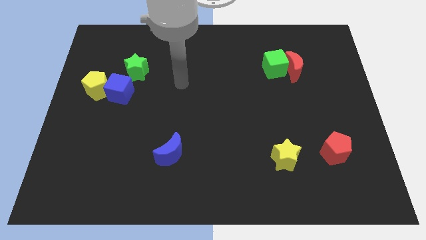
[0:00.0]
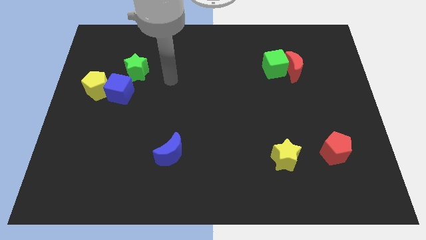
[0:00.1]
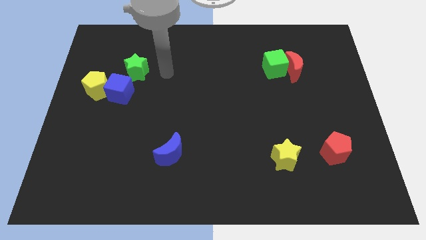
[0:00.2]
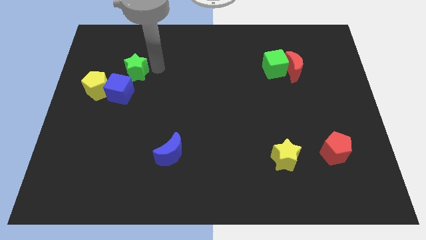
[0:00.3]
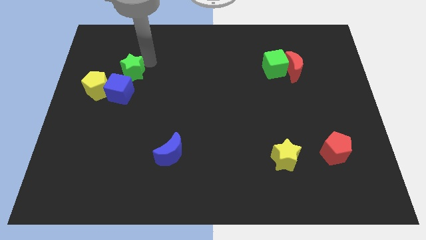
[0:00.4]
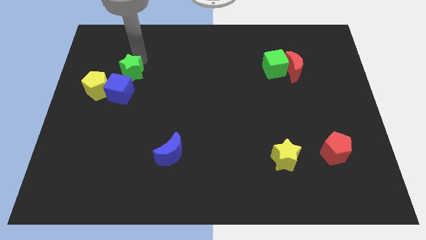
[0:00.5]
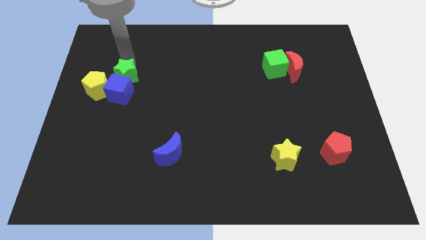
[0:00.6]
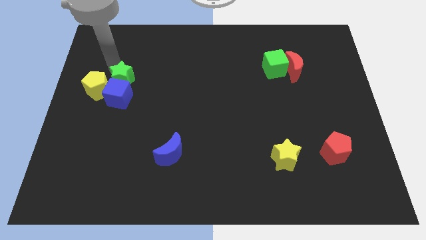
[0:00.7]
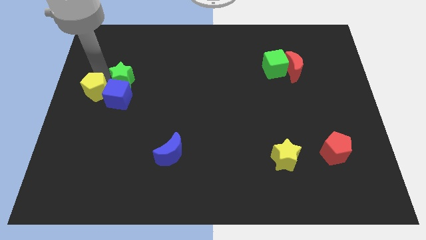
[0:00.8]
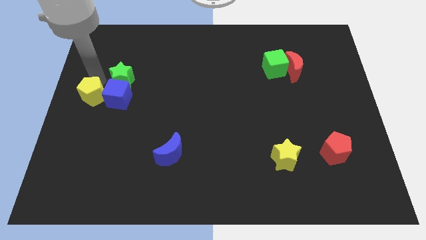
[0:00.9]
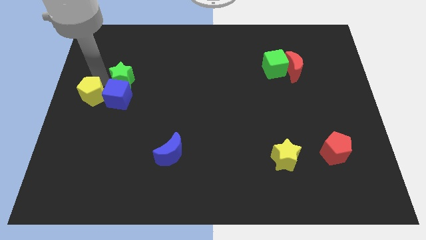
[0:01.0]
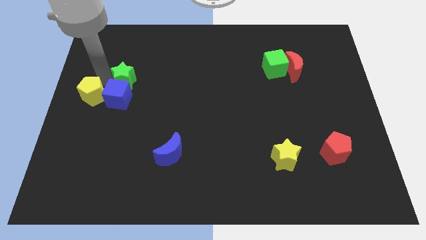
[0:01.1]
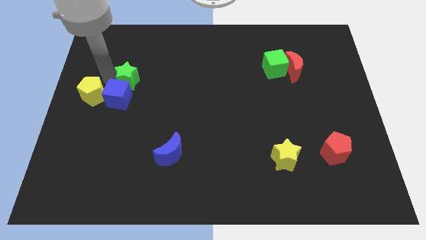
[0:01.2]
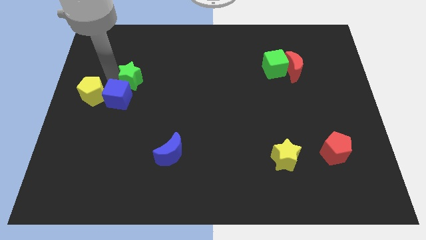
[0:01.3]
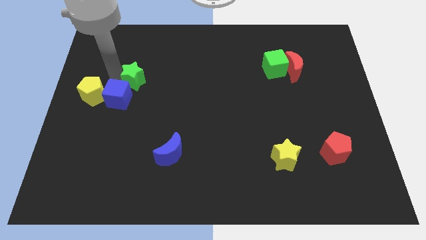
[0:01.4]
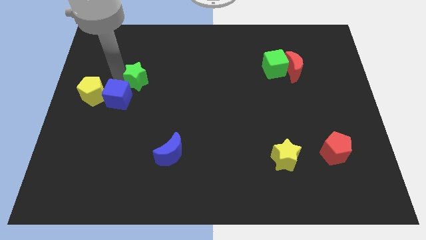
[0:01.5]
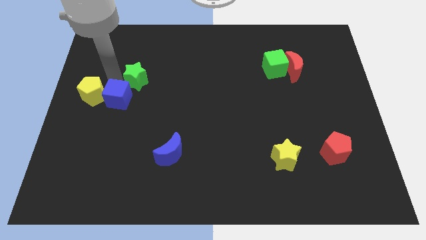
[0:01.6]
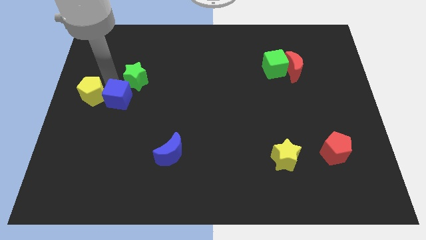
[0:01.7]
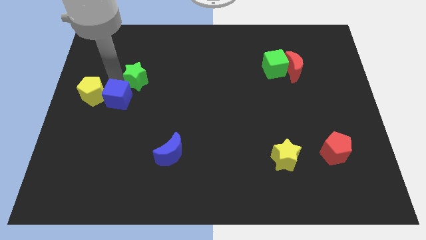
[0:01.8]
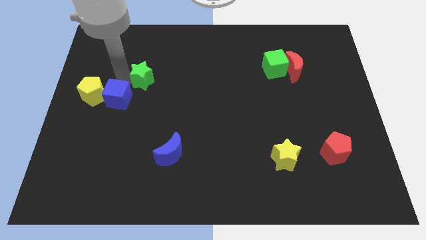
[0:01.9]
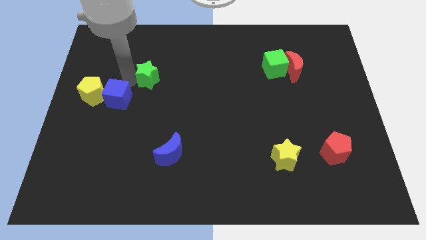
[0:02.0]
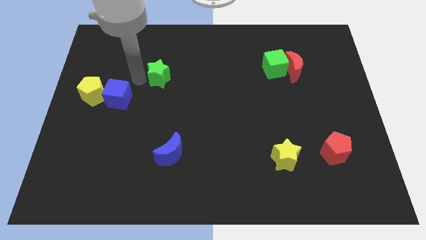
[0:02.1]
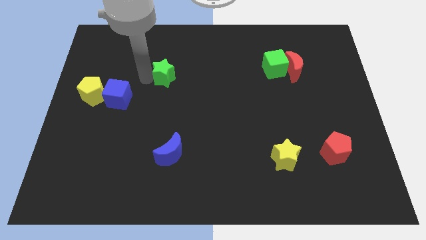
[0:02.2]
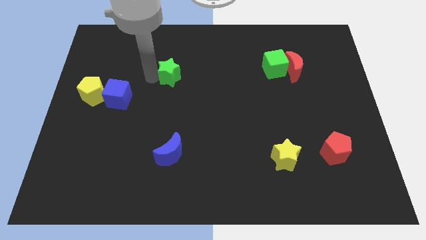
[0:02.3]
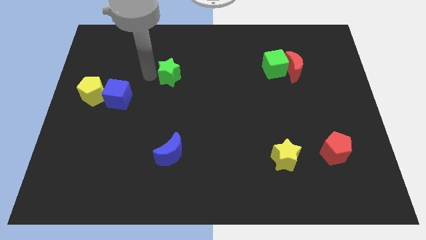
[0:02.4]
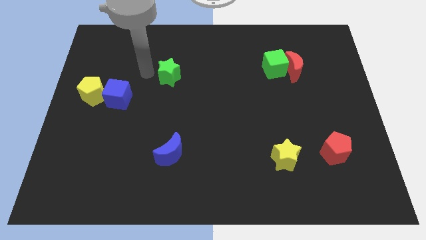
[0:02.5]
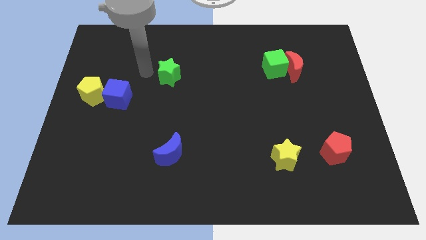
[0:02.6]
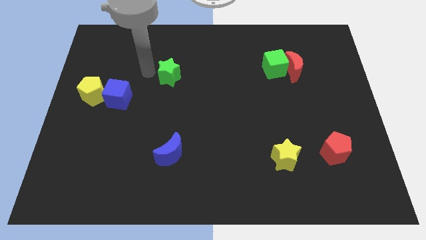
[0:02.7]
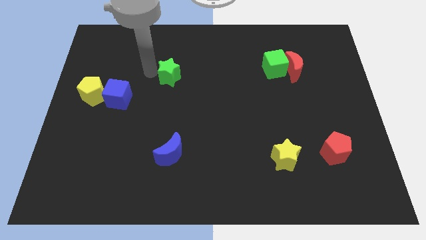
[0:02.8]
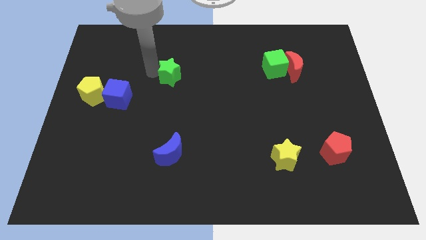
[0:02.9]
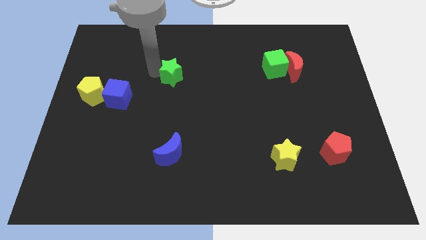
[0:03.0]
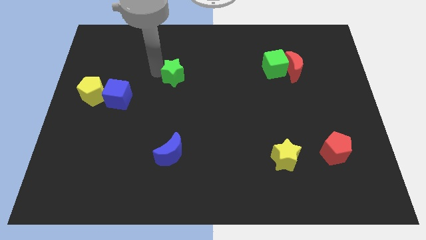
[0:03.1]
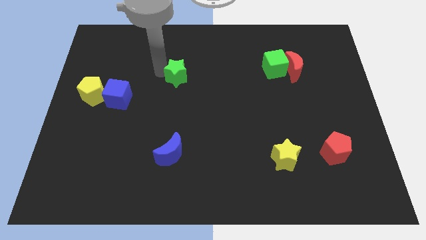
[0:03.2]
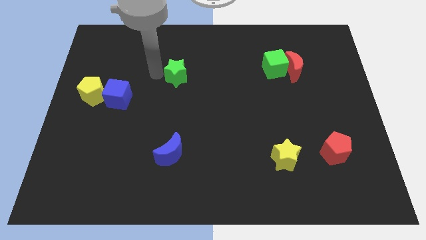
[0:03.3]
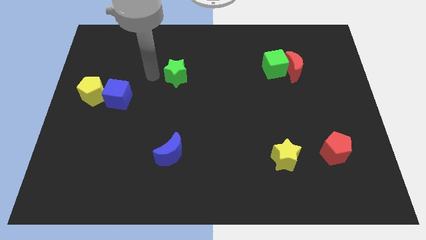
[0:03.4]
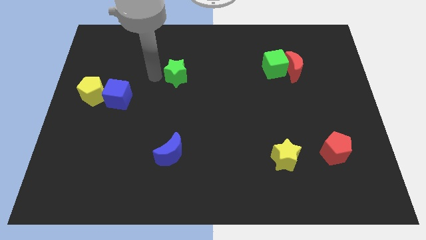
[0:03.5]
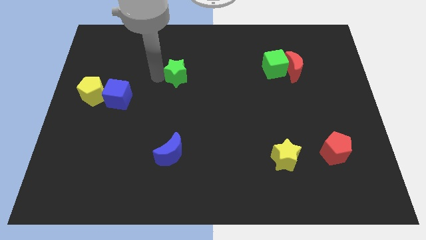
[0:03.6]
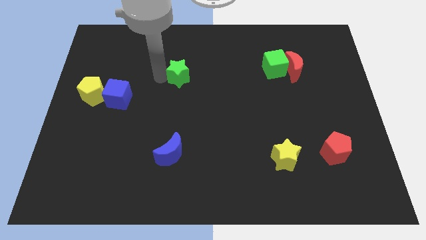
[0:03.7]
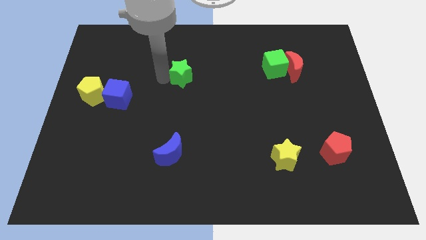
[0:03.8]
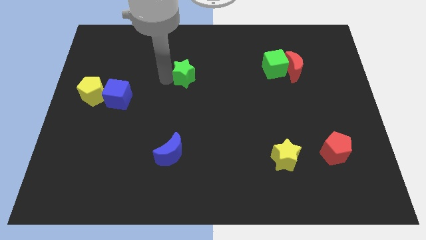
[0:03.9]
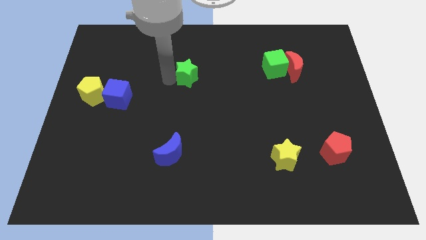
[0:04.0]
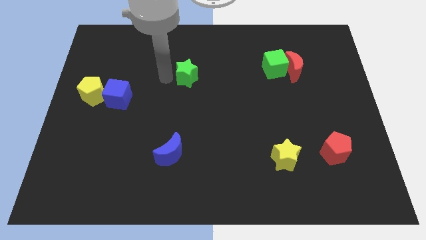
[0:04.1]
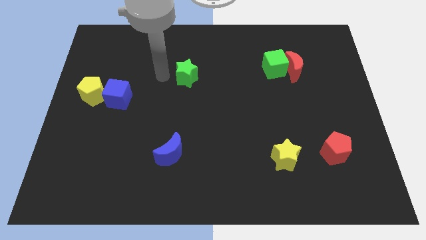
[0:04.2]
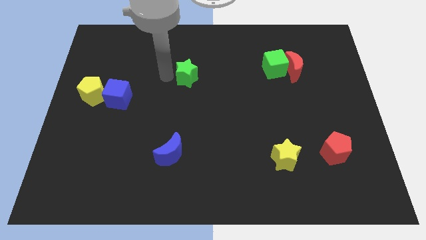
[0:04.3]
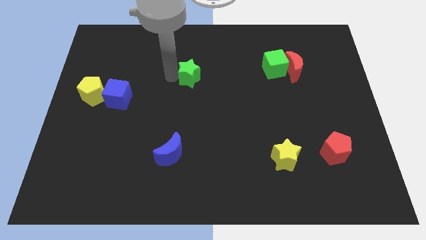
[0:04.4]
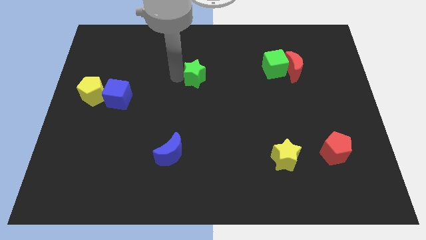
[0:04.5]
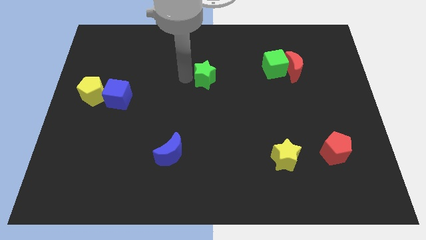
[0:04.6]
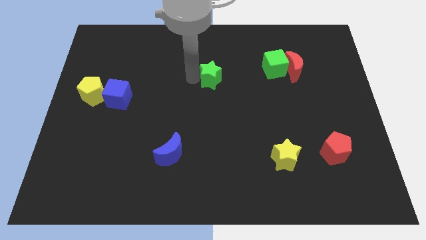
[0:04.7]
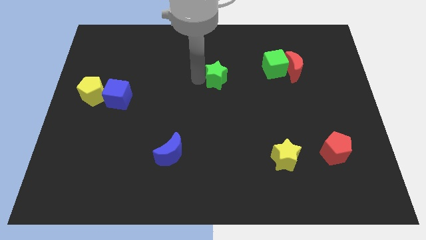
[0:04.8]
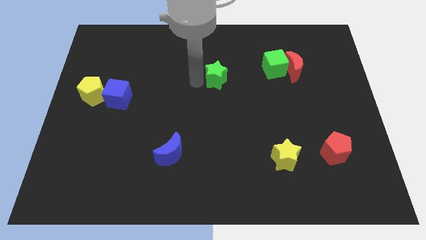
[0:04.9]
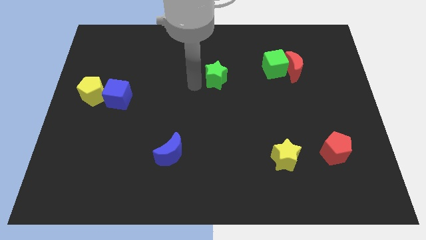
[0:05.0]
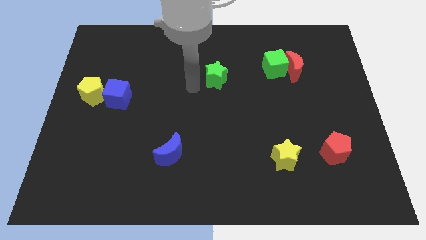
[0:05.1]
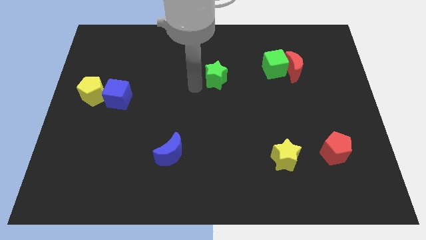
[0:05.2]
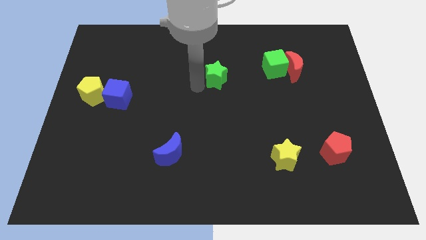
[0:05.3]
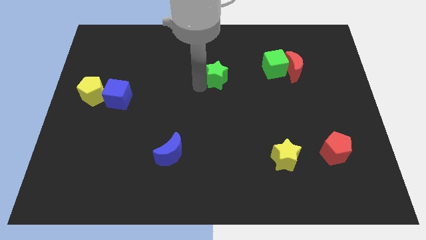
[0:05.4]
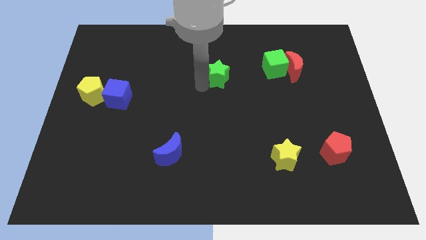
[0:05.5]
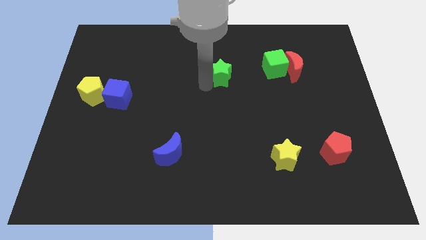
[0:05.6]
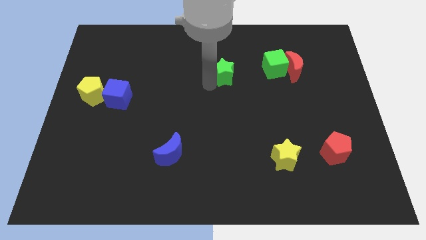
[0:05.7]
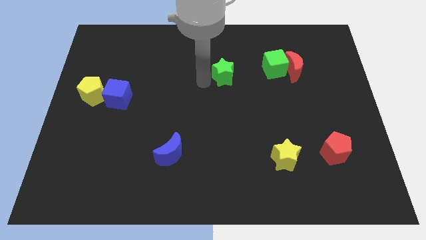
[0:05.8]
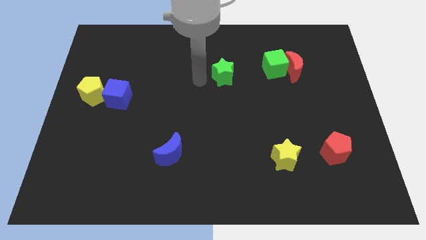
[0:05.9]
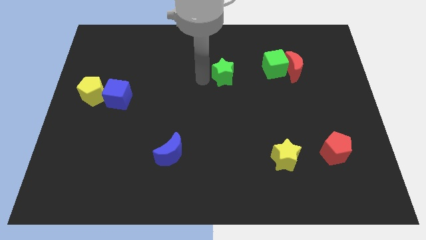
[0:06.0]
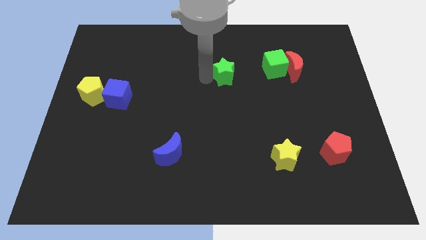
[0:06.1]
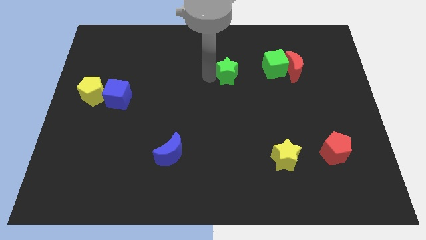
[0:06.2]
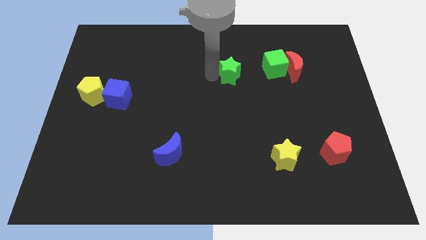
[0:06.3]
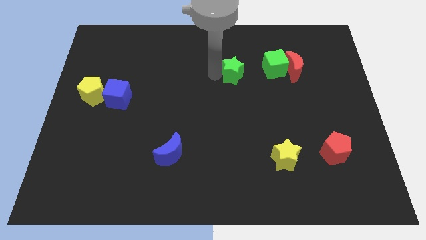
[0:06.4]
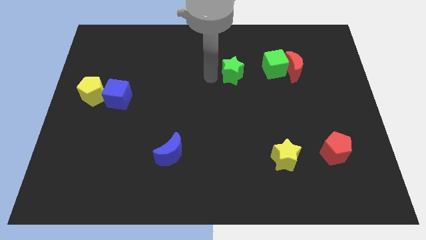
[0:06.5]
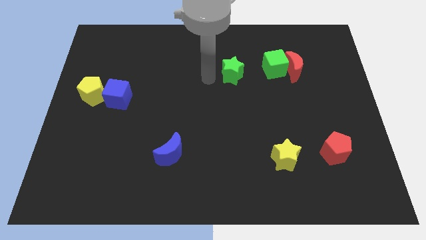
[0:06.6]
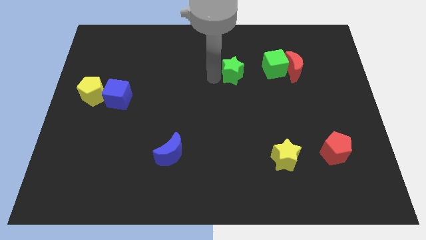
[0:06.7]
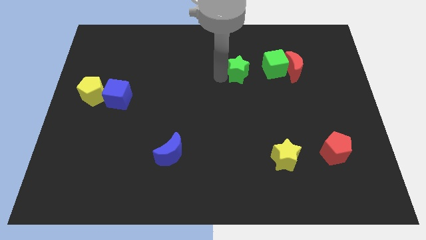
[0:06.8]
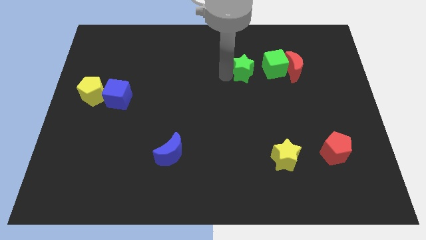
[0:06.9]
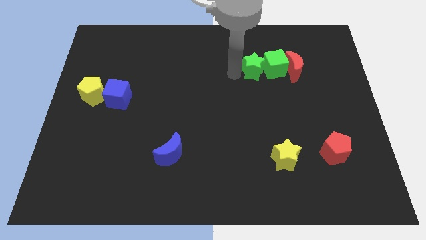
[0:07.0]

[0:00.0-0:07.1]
put the green star towards the green cube

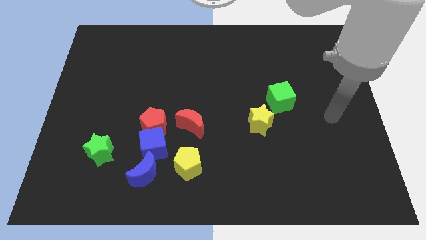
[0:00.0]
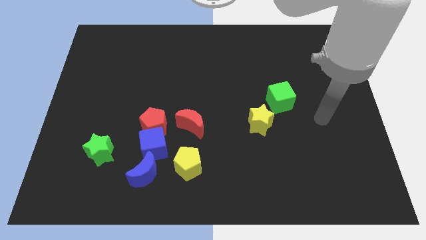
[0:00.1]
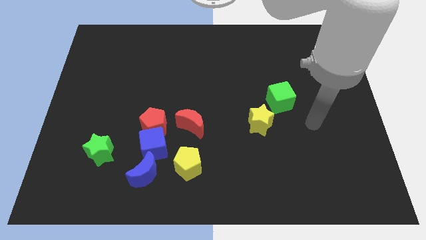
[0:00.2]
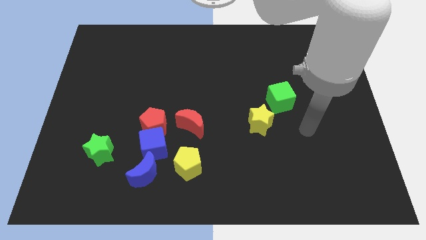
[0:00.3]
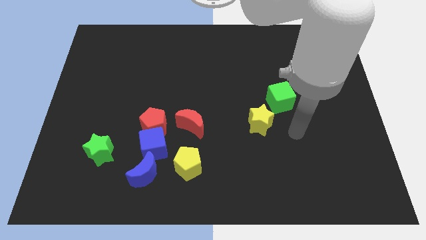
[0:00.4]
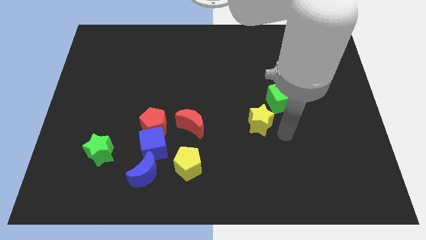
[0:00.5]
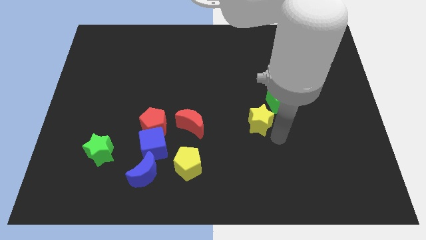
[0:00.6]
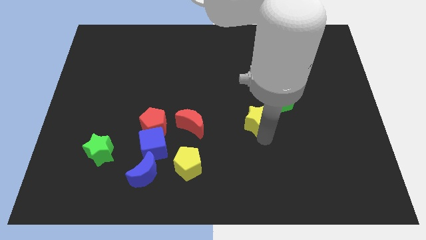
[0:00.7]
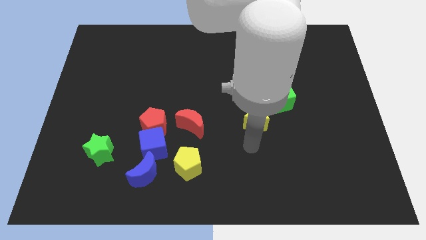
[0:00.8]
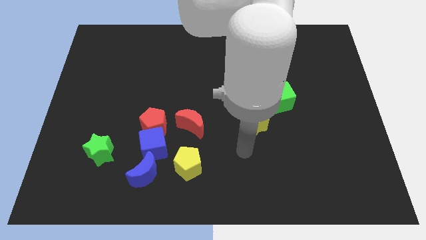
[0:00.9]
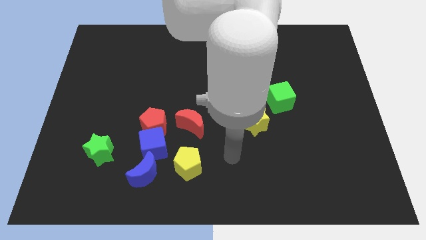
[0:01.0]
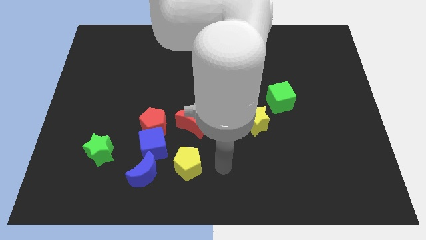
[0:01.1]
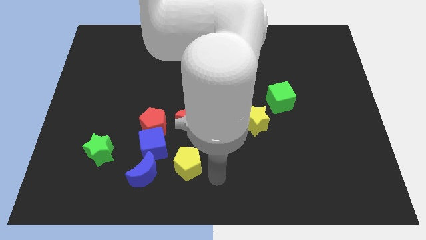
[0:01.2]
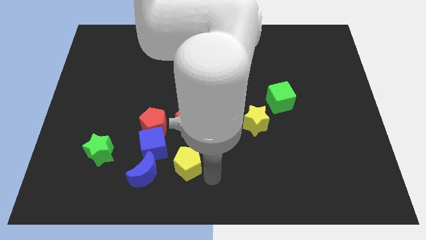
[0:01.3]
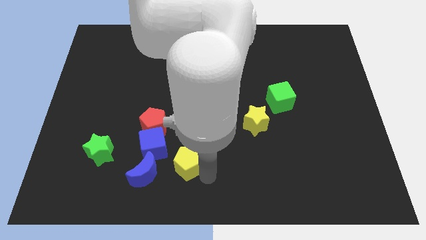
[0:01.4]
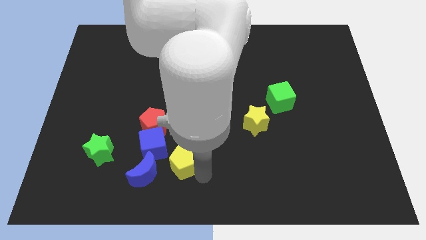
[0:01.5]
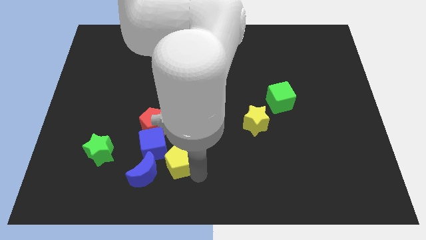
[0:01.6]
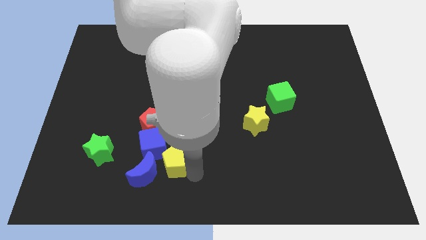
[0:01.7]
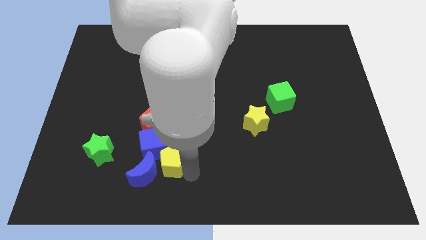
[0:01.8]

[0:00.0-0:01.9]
push the yellow pentagon next to the blue cube
